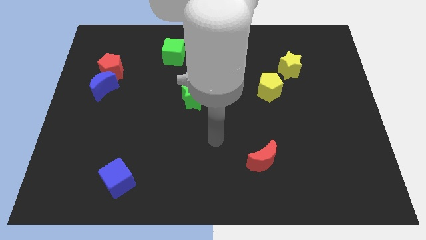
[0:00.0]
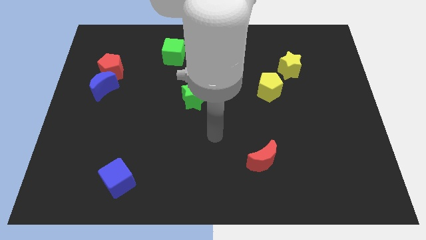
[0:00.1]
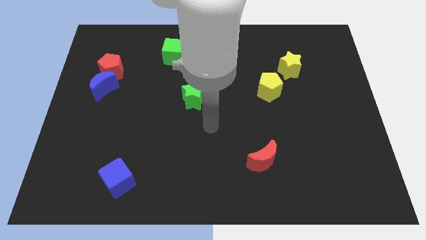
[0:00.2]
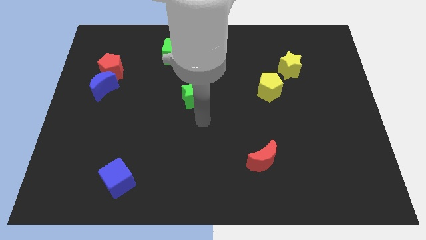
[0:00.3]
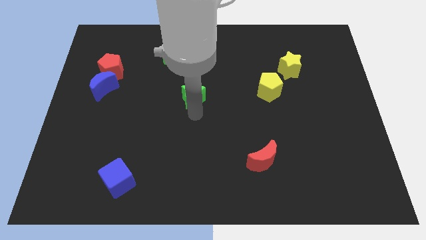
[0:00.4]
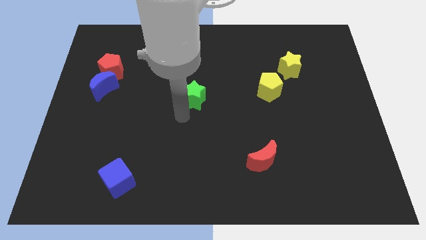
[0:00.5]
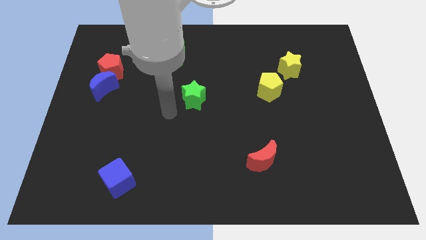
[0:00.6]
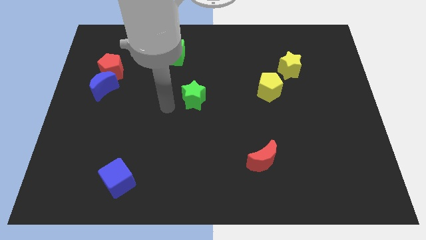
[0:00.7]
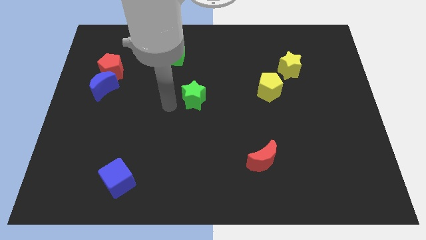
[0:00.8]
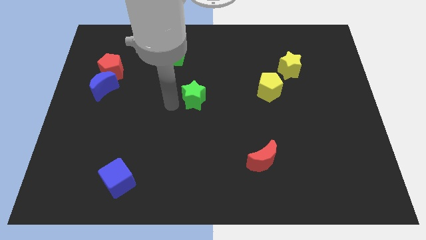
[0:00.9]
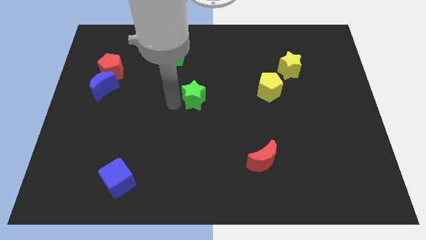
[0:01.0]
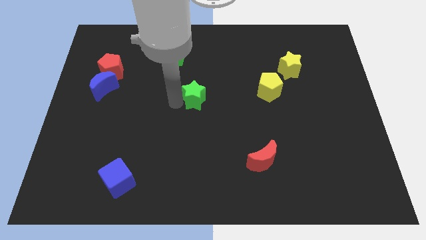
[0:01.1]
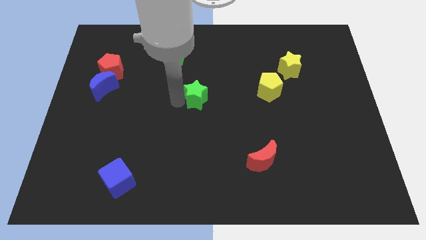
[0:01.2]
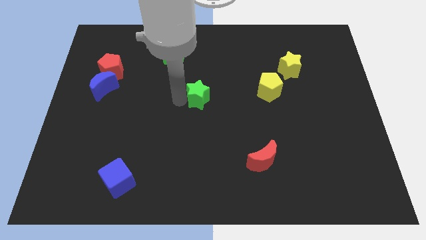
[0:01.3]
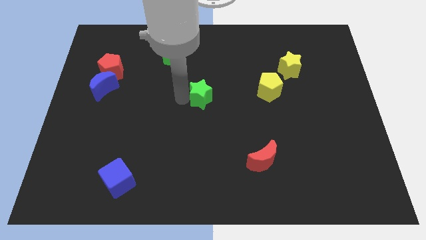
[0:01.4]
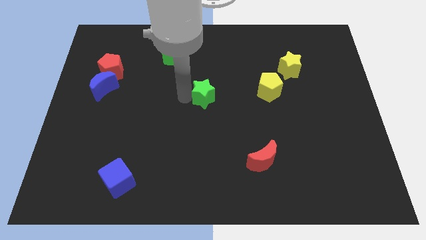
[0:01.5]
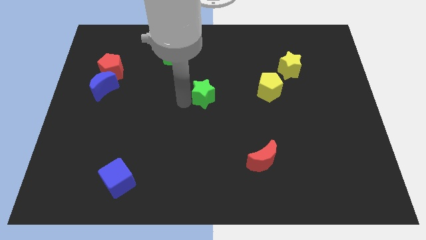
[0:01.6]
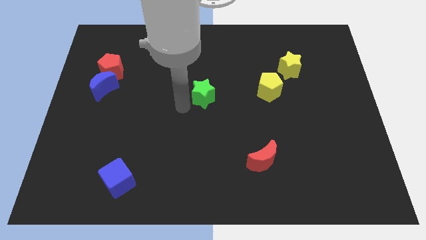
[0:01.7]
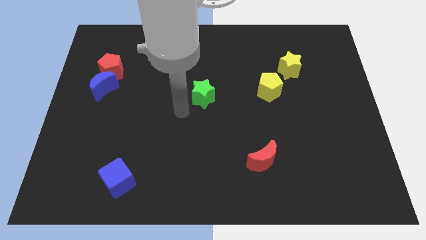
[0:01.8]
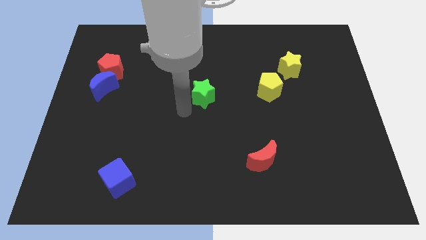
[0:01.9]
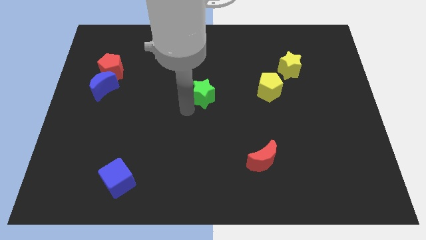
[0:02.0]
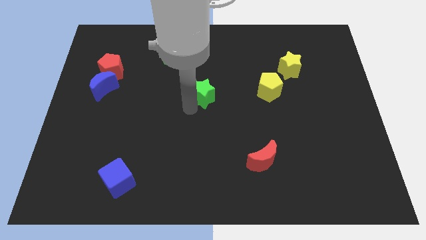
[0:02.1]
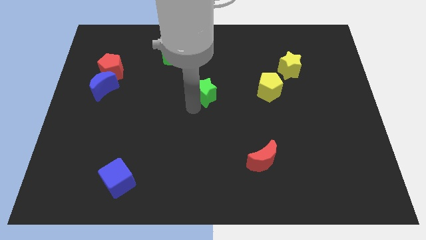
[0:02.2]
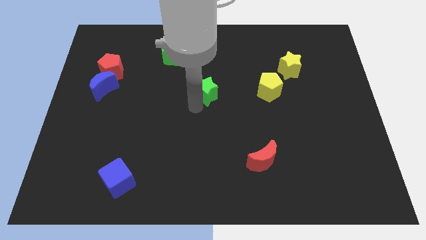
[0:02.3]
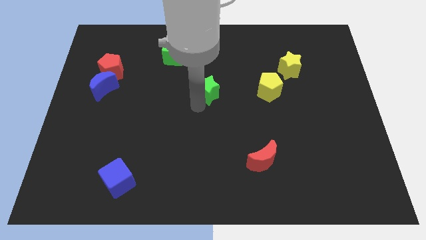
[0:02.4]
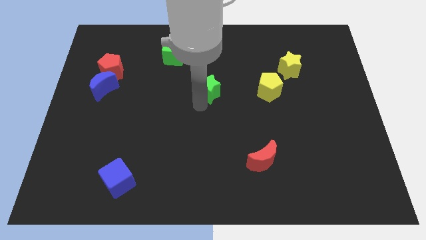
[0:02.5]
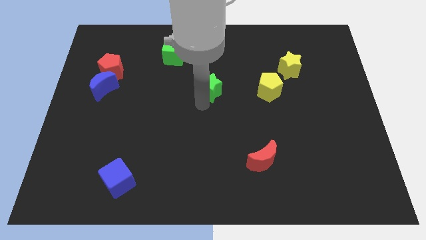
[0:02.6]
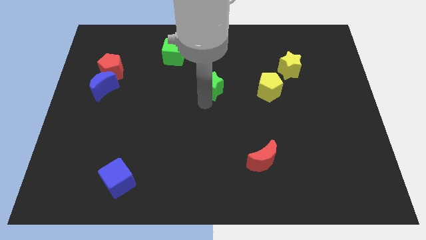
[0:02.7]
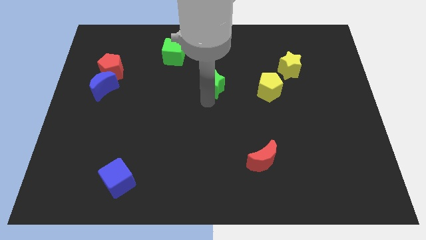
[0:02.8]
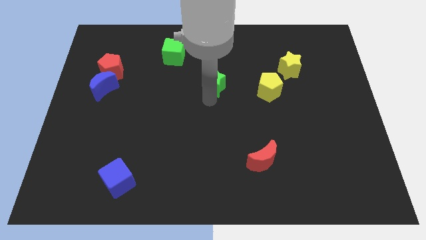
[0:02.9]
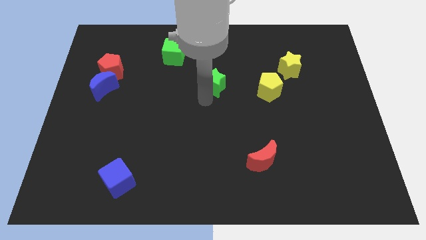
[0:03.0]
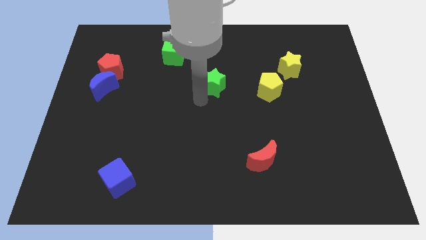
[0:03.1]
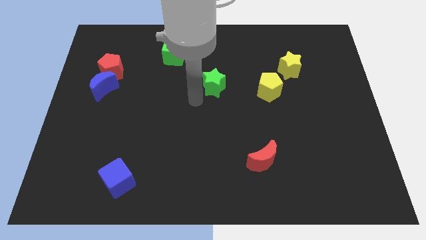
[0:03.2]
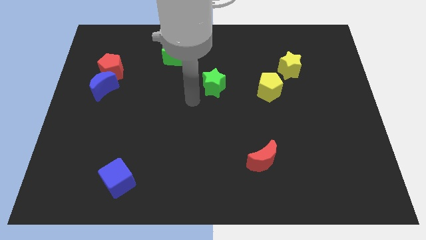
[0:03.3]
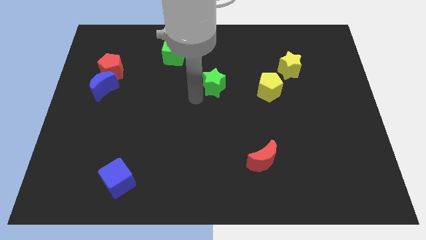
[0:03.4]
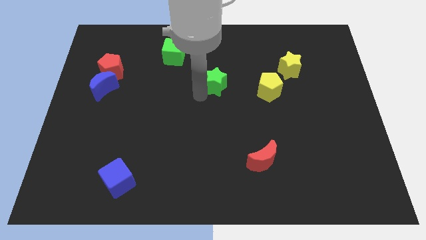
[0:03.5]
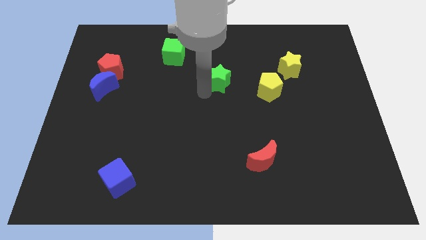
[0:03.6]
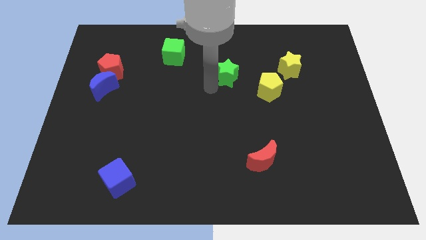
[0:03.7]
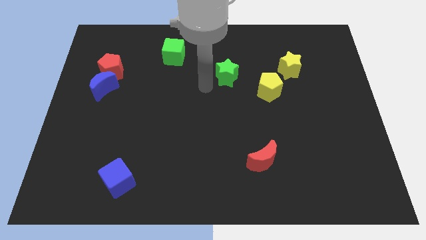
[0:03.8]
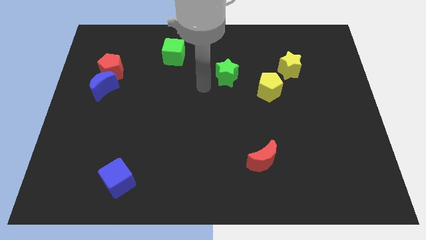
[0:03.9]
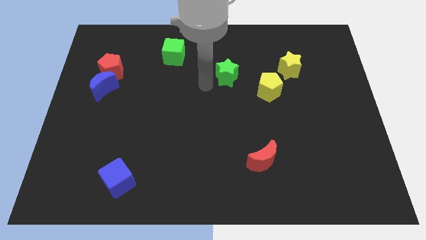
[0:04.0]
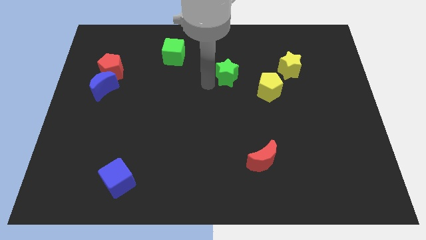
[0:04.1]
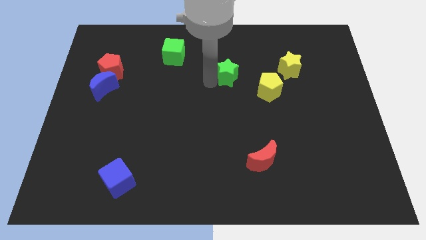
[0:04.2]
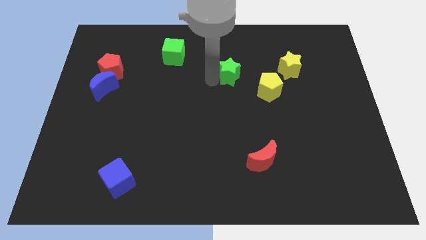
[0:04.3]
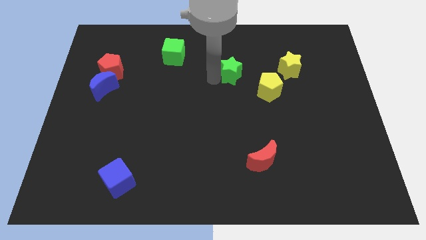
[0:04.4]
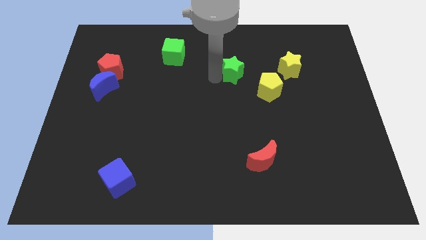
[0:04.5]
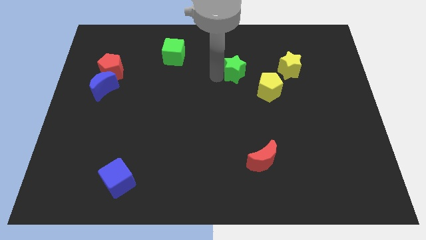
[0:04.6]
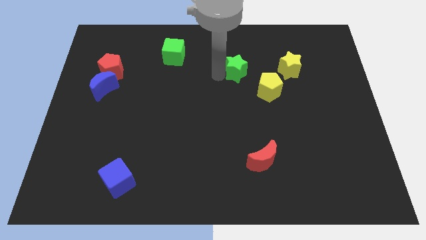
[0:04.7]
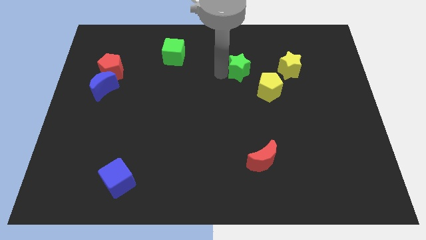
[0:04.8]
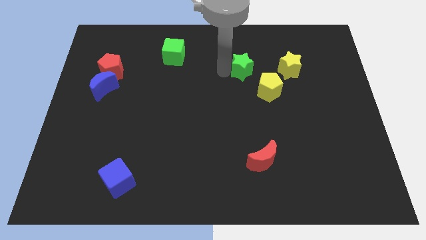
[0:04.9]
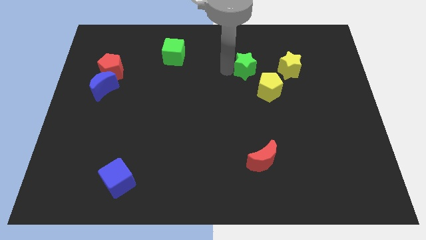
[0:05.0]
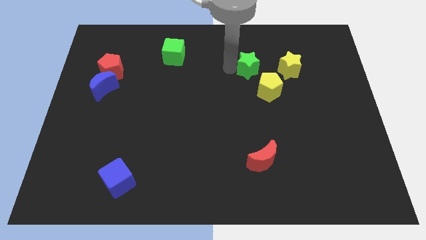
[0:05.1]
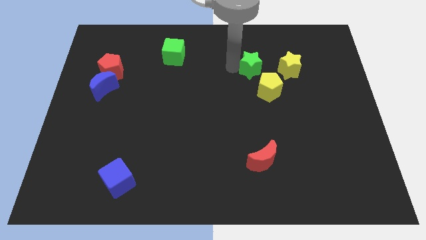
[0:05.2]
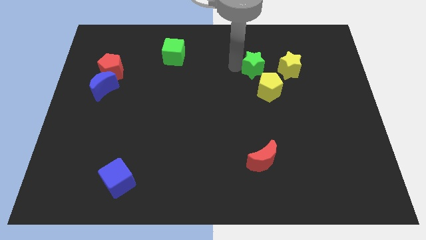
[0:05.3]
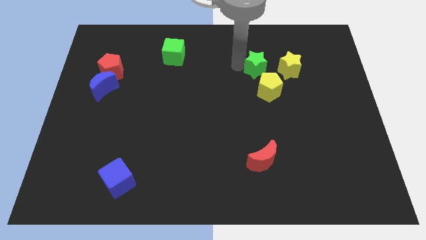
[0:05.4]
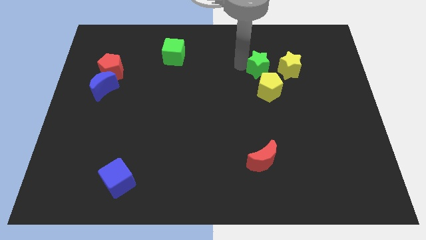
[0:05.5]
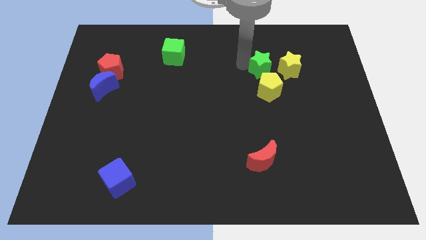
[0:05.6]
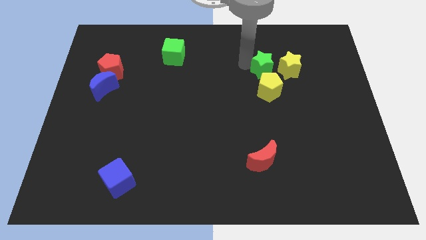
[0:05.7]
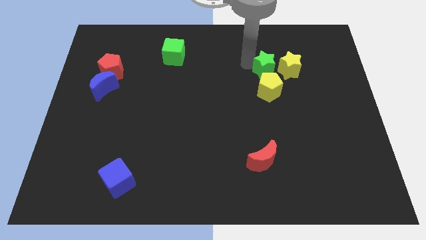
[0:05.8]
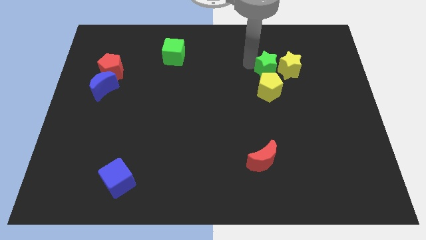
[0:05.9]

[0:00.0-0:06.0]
move the green star towards the yellow star

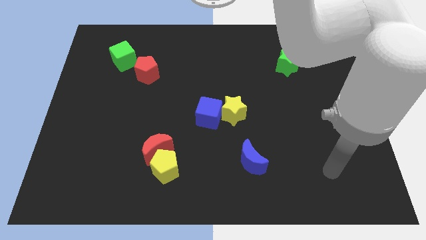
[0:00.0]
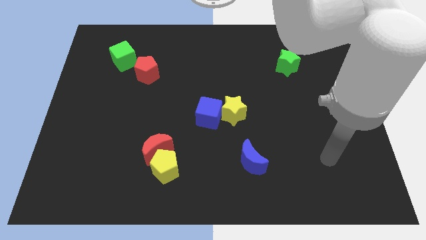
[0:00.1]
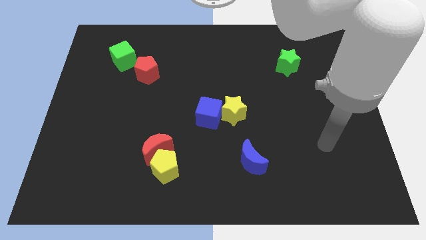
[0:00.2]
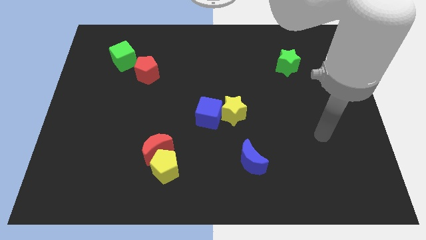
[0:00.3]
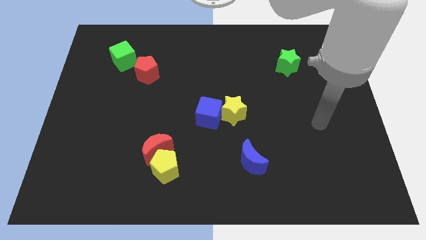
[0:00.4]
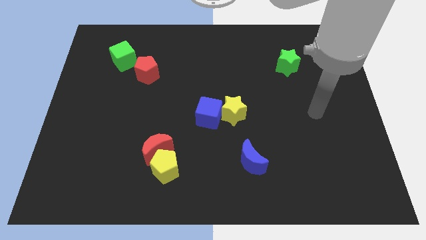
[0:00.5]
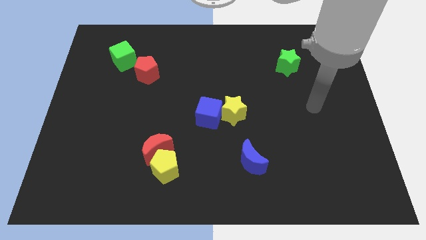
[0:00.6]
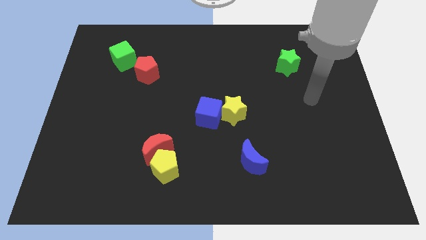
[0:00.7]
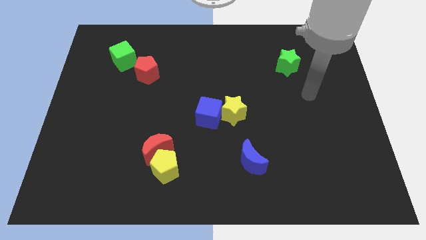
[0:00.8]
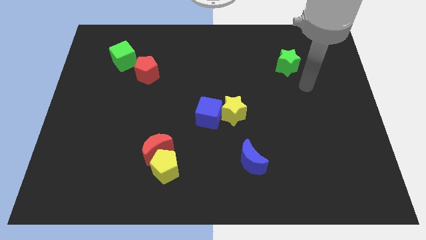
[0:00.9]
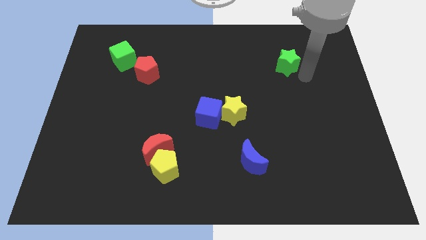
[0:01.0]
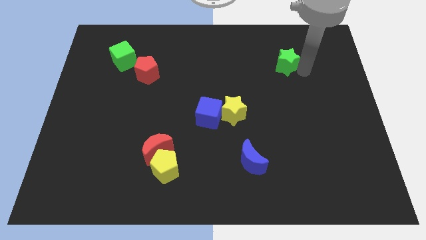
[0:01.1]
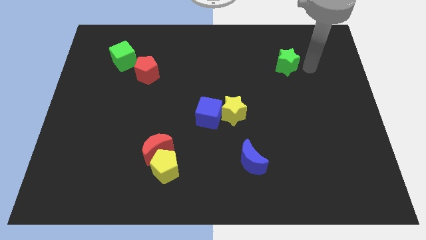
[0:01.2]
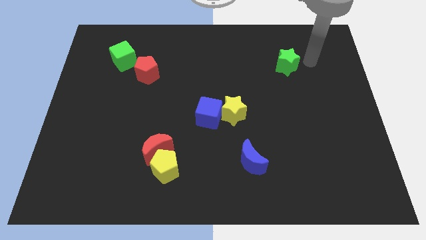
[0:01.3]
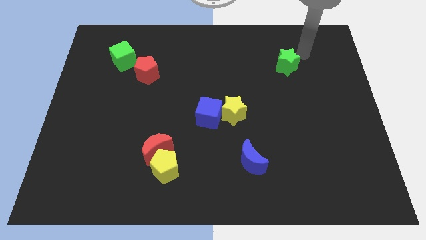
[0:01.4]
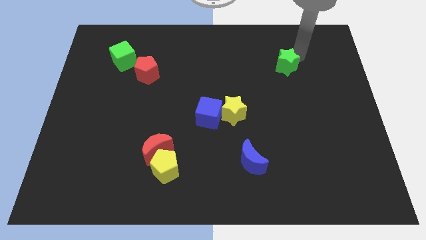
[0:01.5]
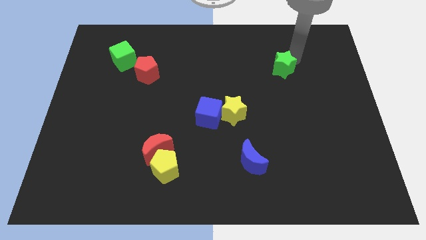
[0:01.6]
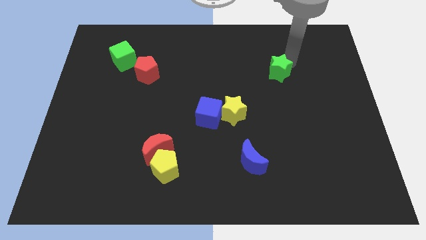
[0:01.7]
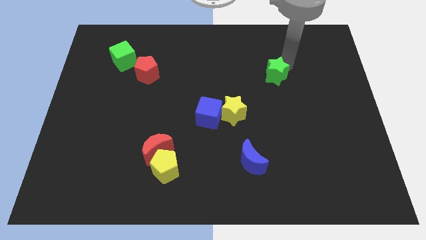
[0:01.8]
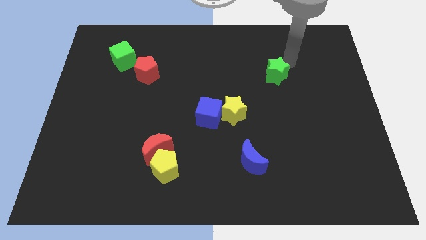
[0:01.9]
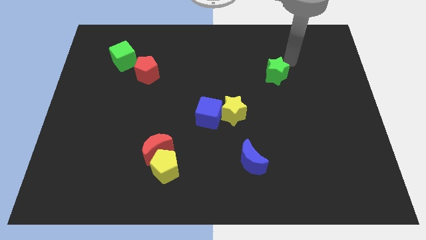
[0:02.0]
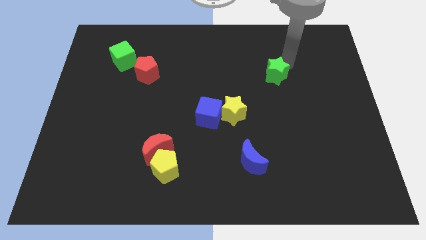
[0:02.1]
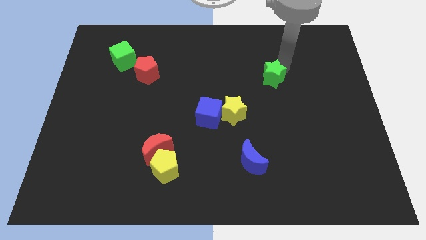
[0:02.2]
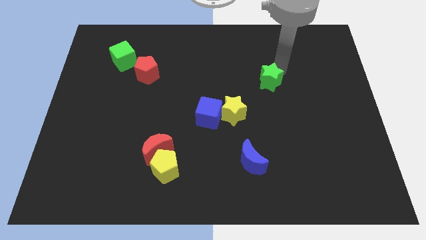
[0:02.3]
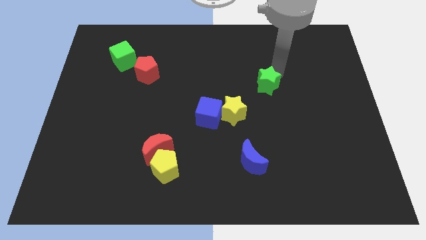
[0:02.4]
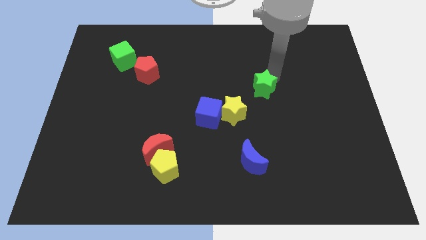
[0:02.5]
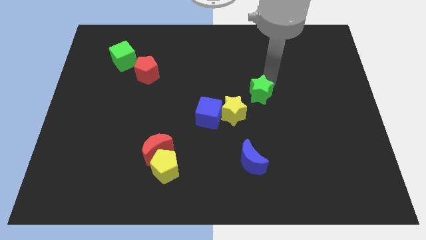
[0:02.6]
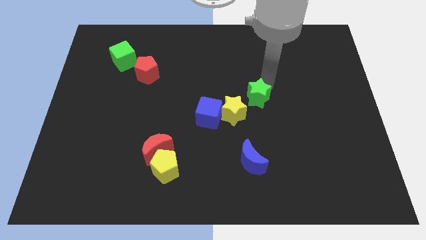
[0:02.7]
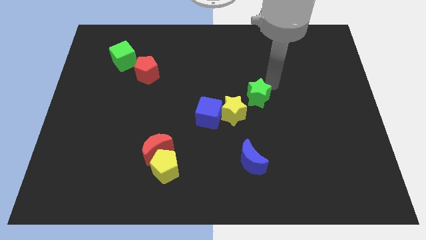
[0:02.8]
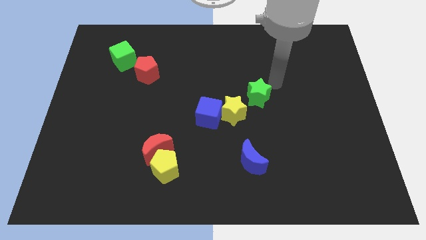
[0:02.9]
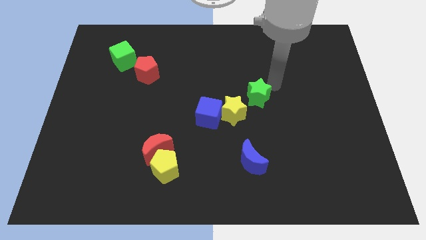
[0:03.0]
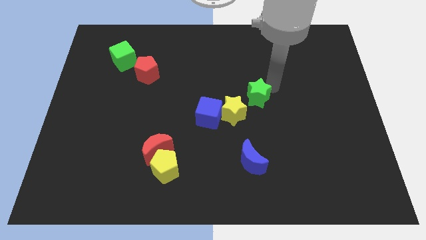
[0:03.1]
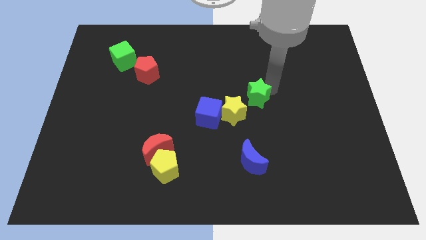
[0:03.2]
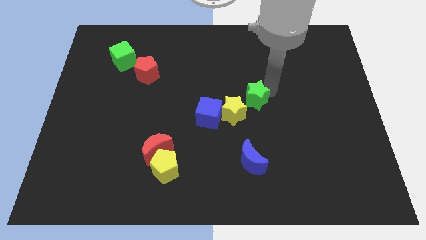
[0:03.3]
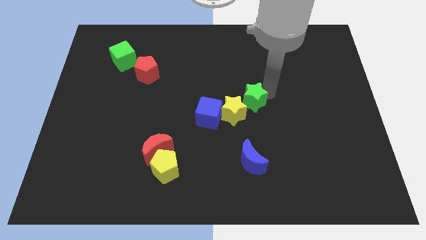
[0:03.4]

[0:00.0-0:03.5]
put the green star close to the yellow star
